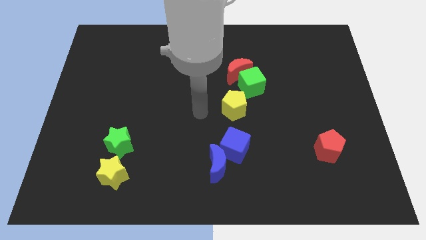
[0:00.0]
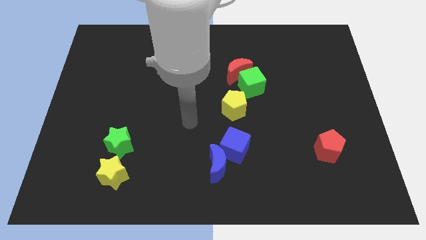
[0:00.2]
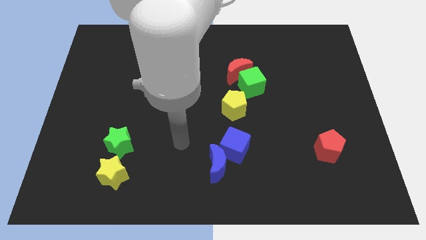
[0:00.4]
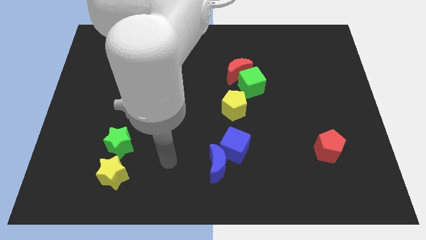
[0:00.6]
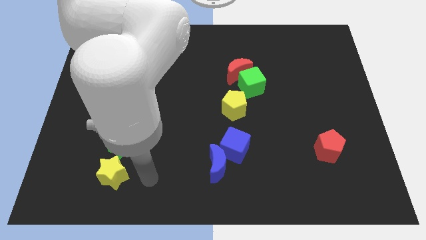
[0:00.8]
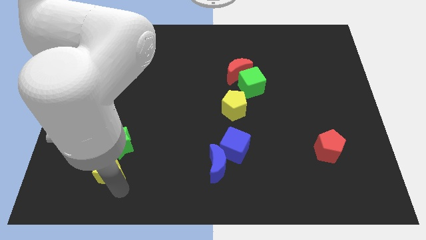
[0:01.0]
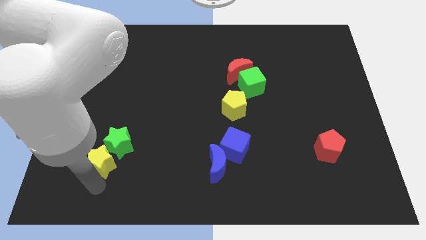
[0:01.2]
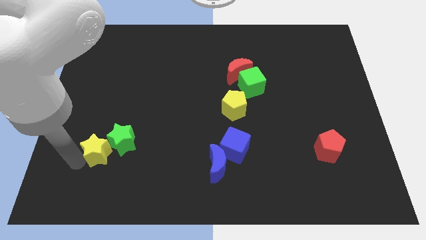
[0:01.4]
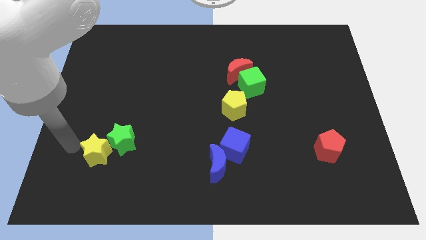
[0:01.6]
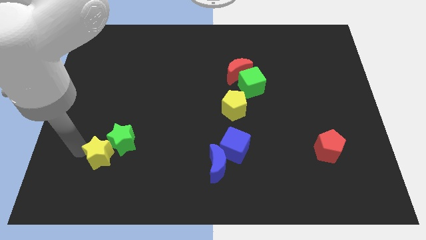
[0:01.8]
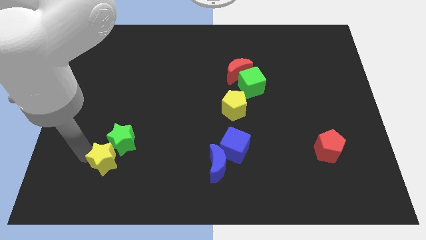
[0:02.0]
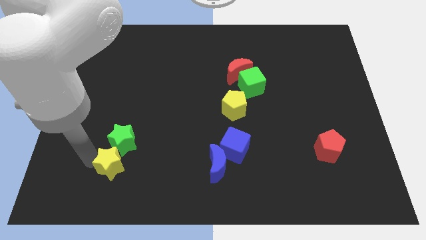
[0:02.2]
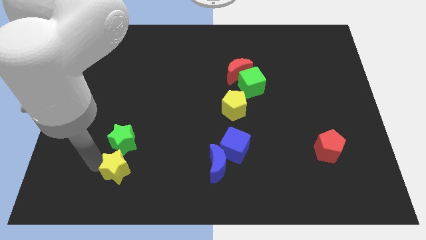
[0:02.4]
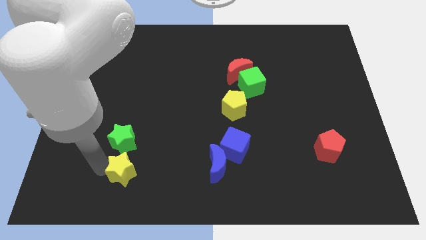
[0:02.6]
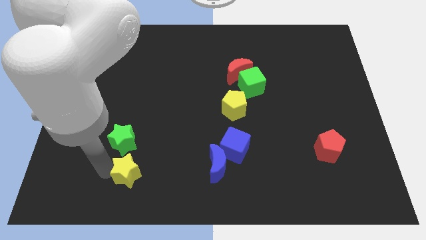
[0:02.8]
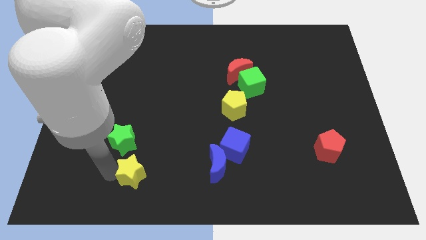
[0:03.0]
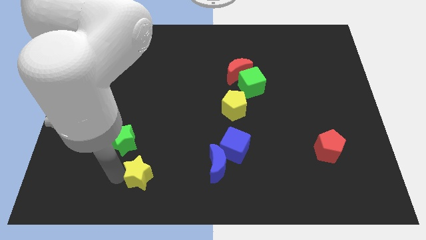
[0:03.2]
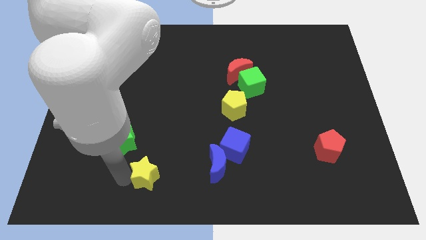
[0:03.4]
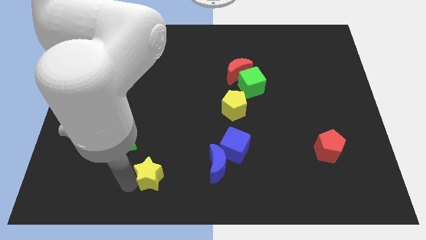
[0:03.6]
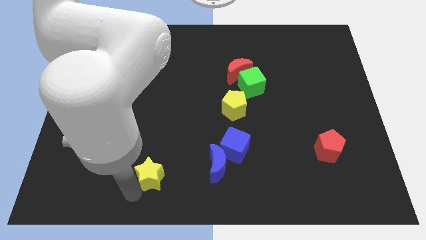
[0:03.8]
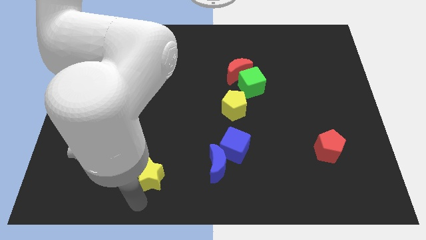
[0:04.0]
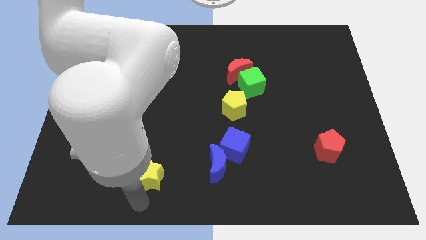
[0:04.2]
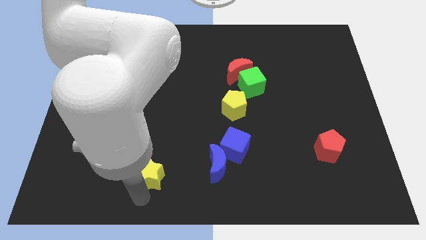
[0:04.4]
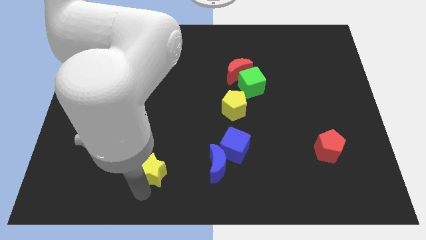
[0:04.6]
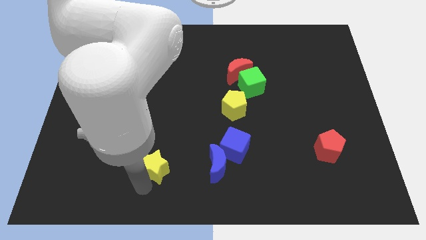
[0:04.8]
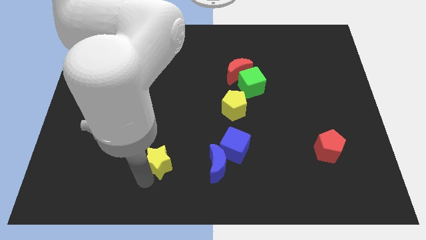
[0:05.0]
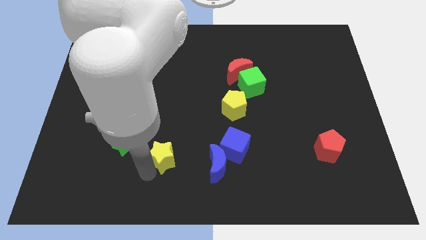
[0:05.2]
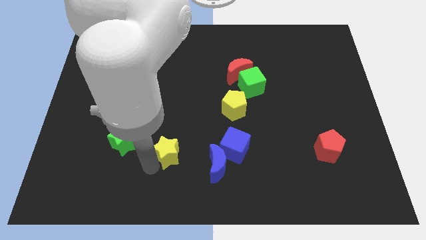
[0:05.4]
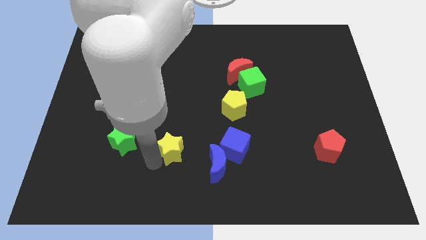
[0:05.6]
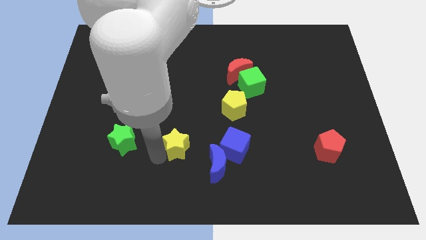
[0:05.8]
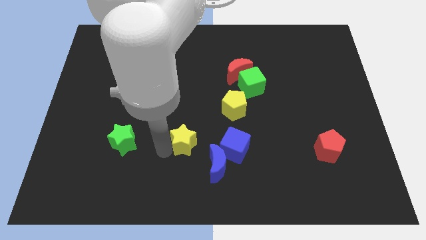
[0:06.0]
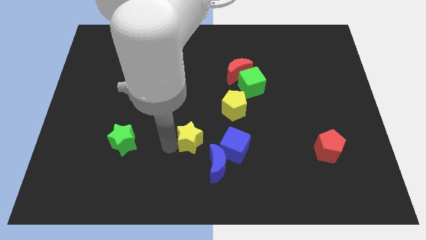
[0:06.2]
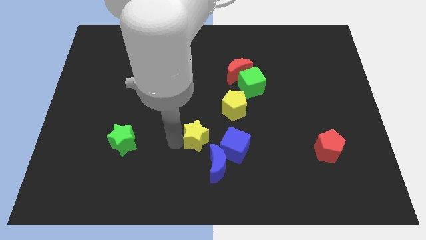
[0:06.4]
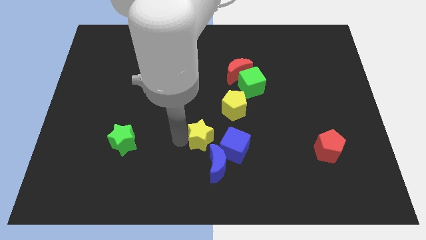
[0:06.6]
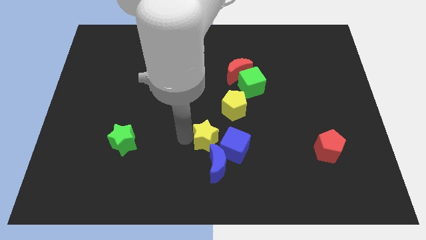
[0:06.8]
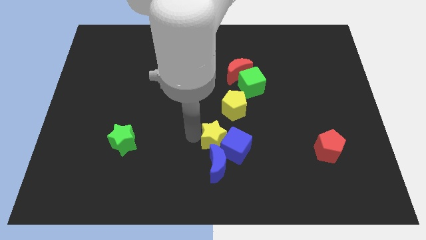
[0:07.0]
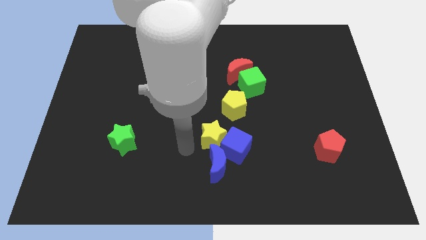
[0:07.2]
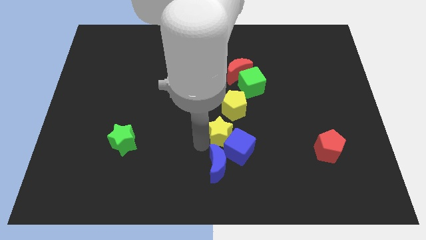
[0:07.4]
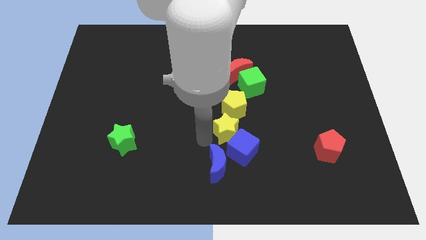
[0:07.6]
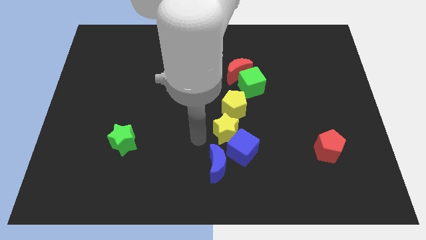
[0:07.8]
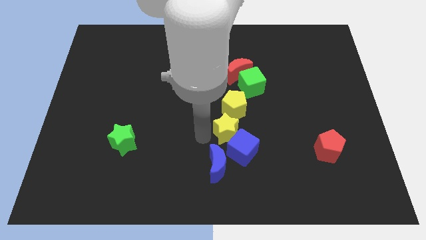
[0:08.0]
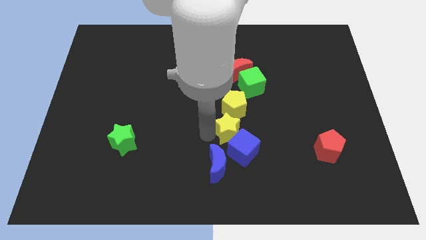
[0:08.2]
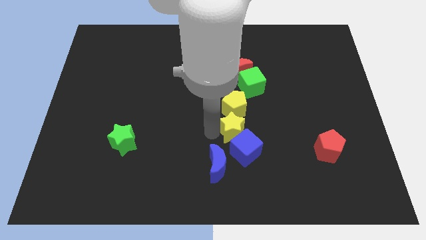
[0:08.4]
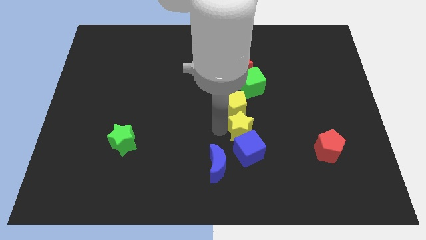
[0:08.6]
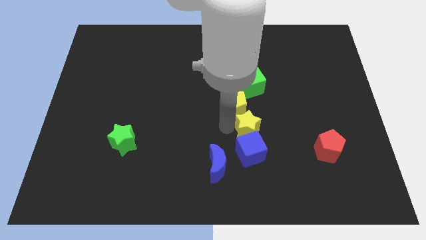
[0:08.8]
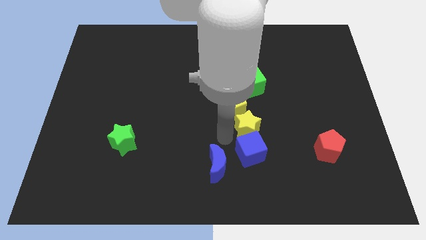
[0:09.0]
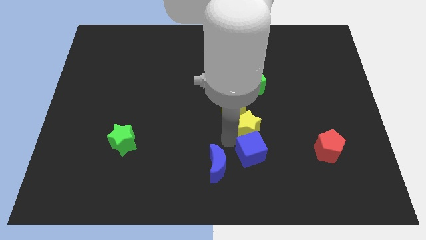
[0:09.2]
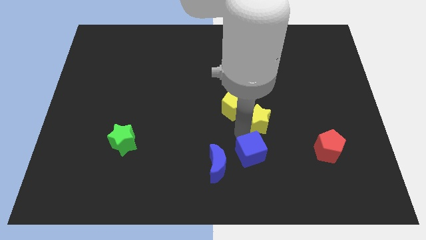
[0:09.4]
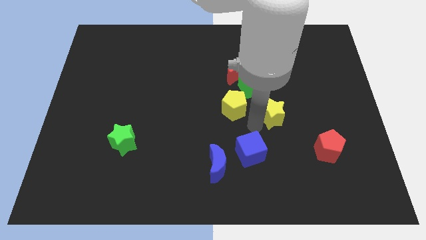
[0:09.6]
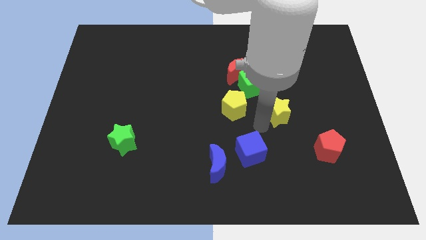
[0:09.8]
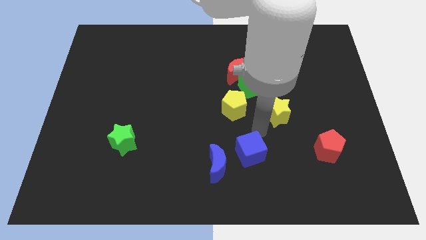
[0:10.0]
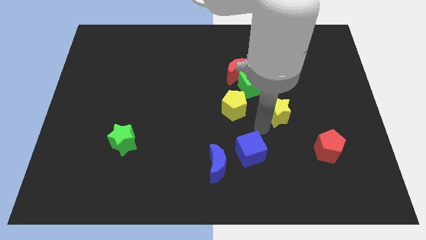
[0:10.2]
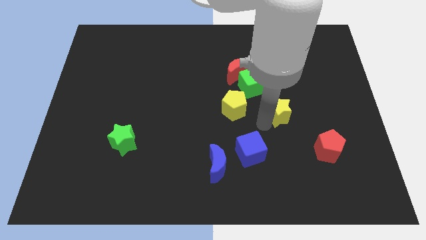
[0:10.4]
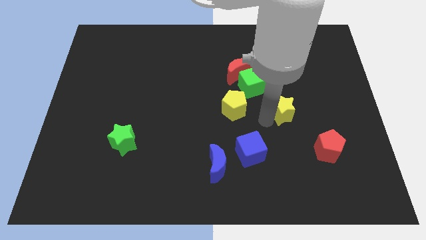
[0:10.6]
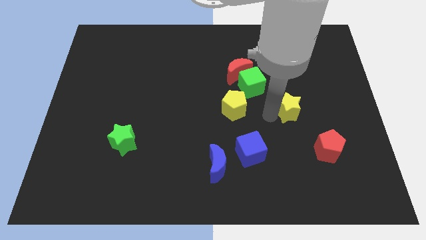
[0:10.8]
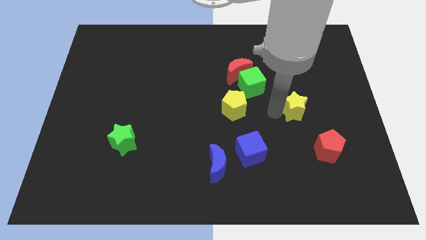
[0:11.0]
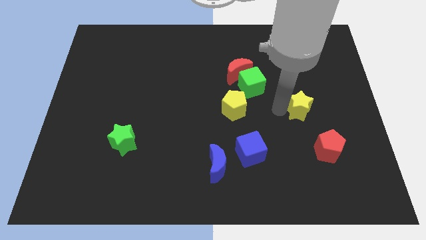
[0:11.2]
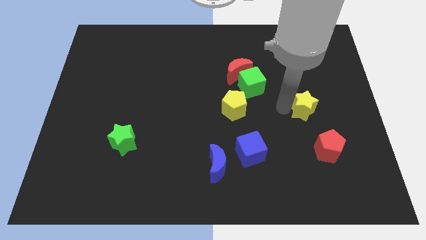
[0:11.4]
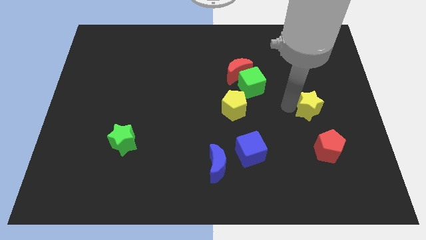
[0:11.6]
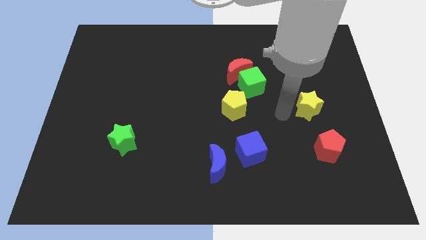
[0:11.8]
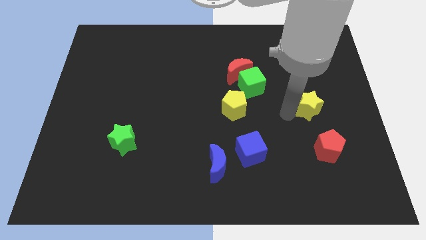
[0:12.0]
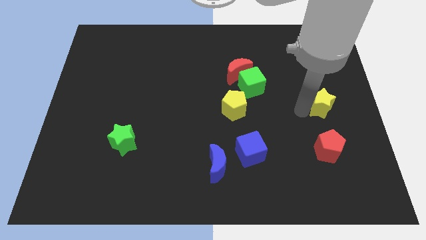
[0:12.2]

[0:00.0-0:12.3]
put the yellow star to the right side of the board
